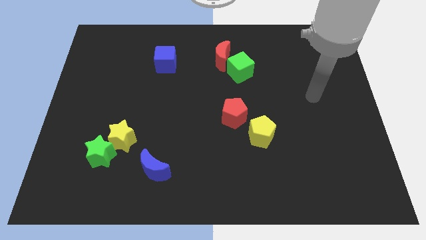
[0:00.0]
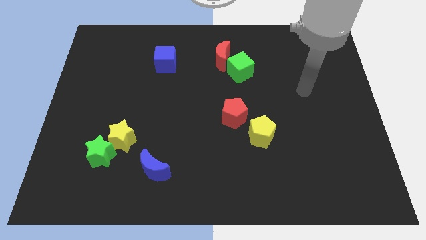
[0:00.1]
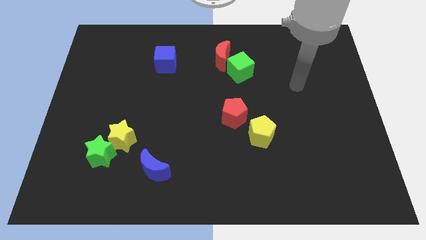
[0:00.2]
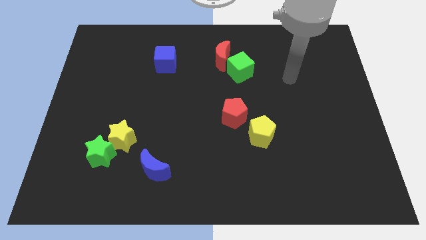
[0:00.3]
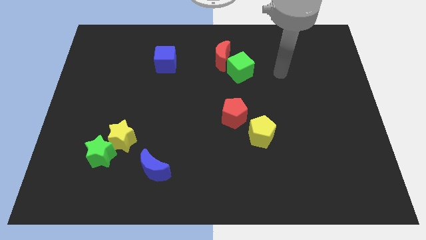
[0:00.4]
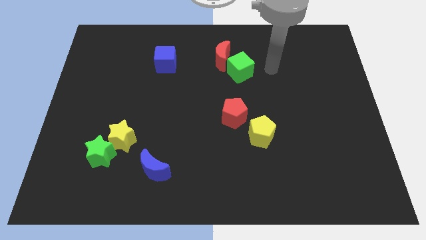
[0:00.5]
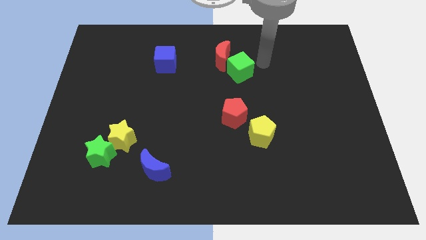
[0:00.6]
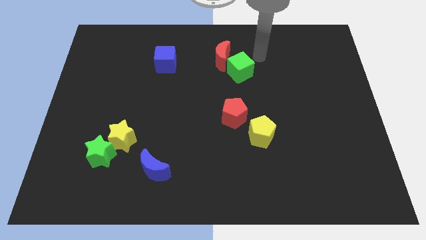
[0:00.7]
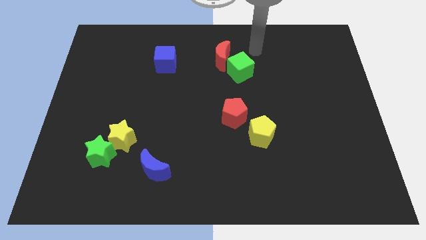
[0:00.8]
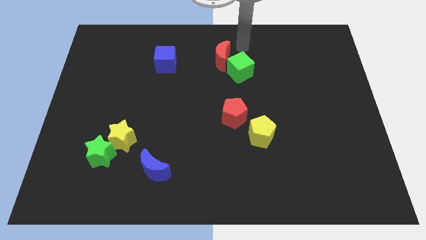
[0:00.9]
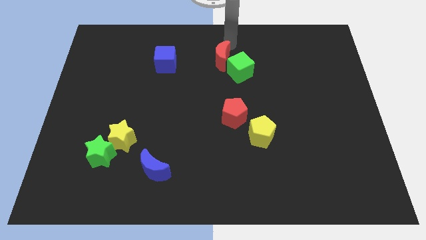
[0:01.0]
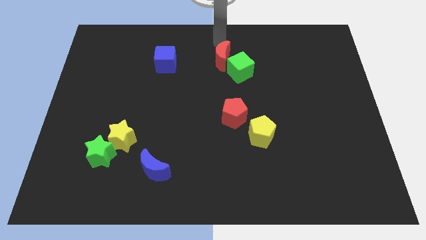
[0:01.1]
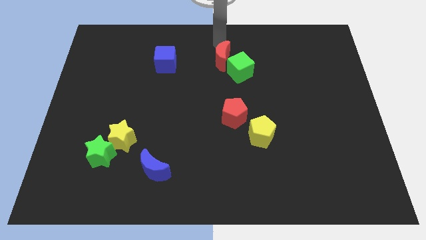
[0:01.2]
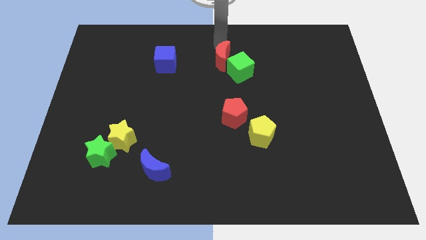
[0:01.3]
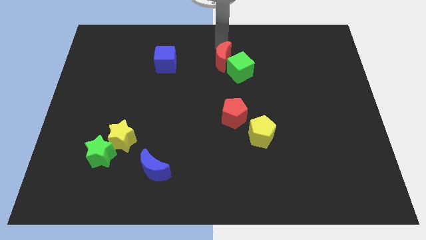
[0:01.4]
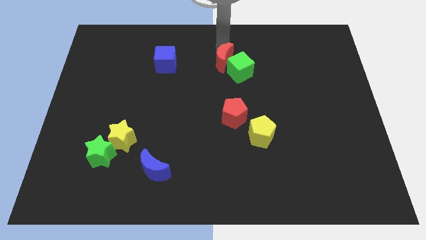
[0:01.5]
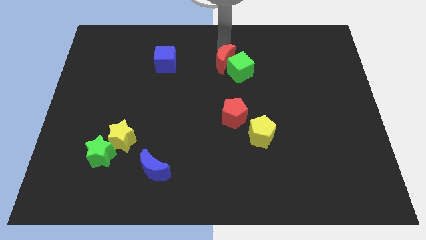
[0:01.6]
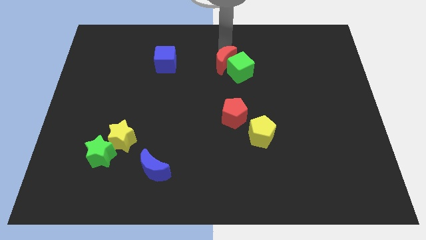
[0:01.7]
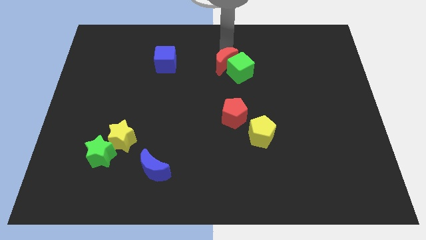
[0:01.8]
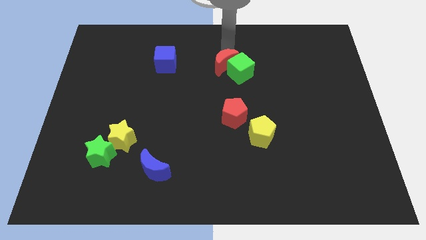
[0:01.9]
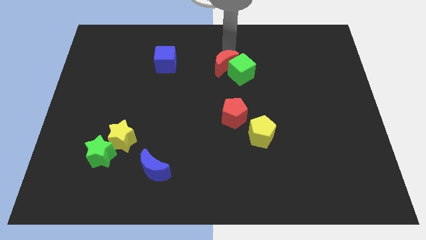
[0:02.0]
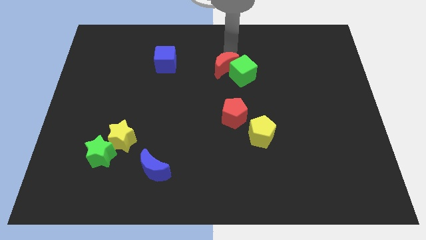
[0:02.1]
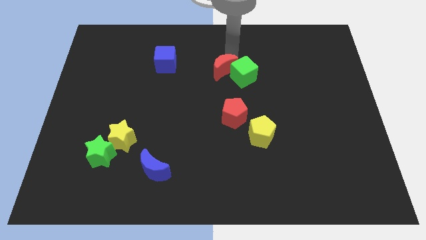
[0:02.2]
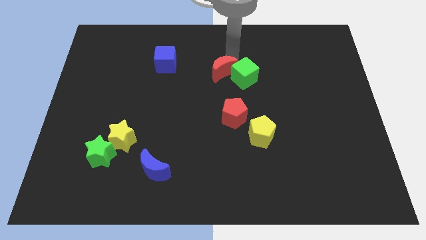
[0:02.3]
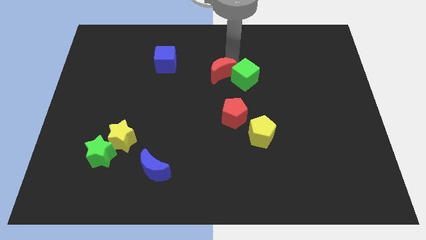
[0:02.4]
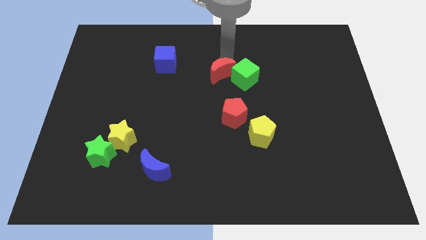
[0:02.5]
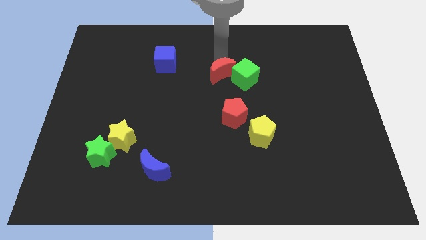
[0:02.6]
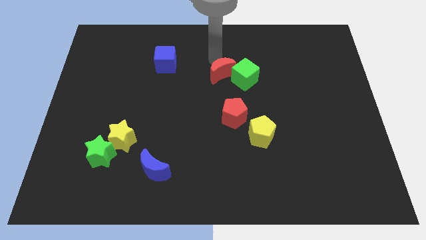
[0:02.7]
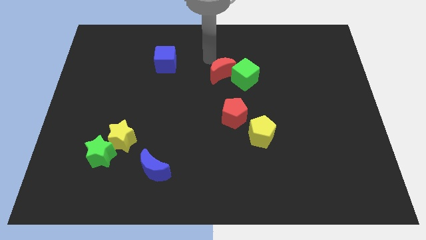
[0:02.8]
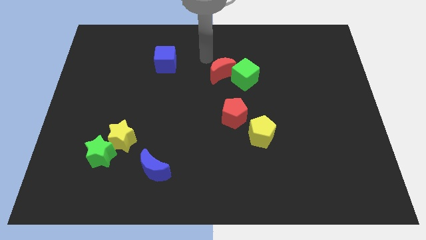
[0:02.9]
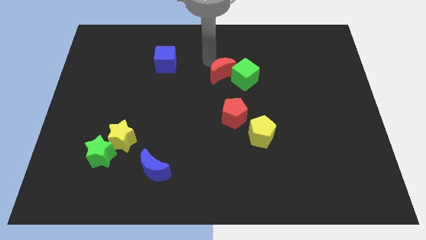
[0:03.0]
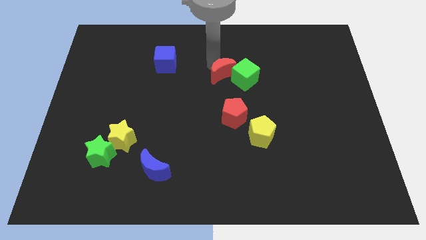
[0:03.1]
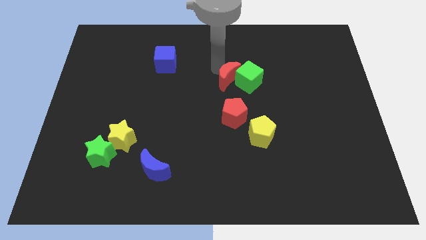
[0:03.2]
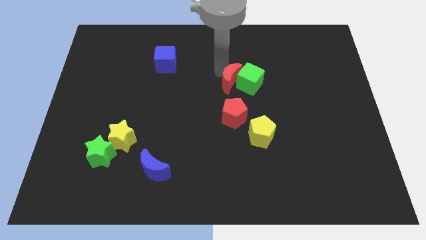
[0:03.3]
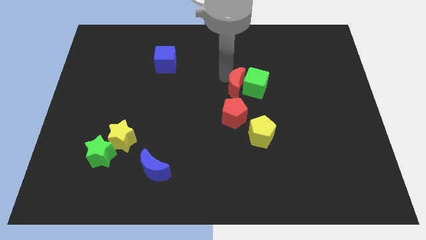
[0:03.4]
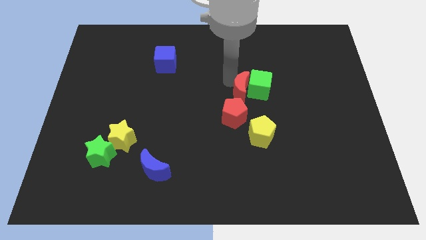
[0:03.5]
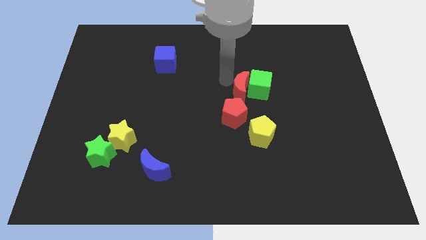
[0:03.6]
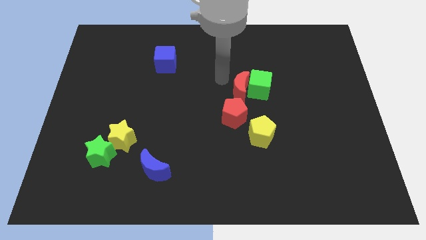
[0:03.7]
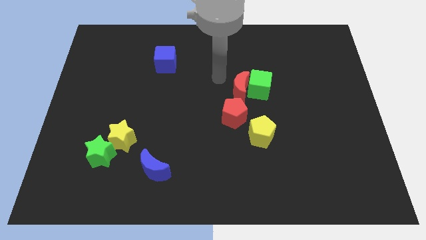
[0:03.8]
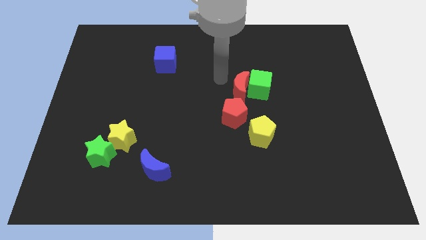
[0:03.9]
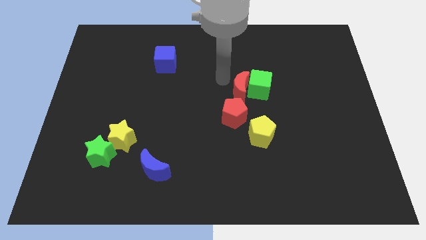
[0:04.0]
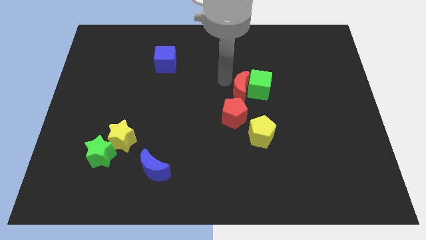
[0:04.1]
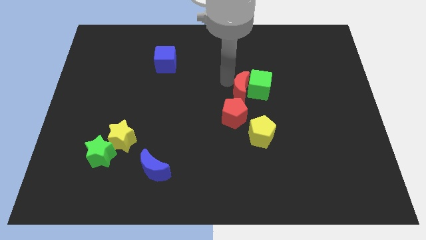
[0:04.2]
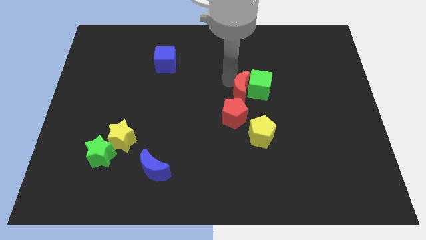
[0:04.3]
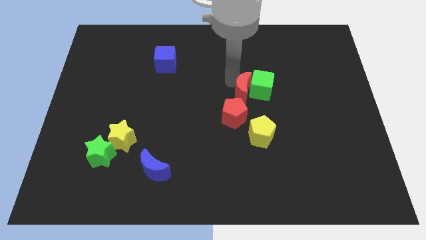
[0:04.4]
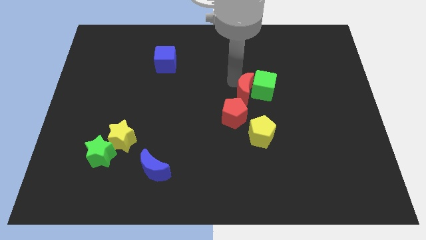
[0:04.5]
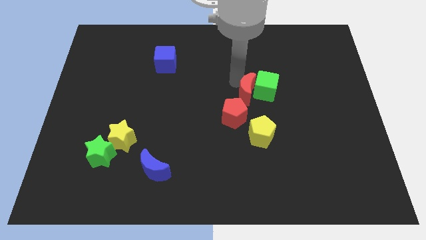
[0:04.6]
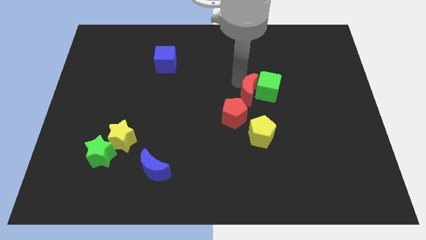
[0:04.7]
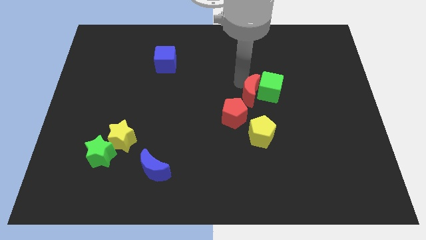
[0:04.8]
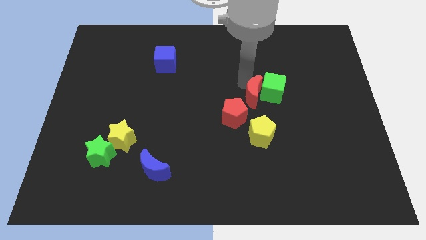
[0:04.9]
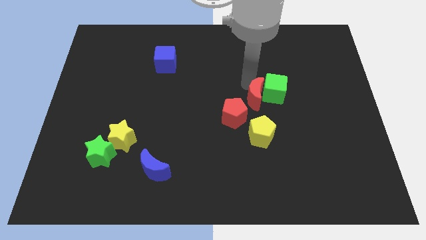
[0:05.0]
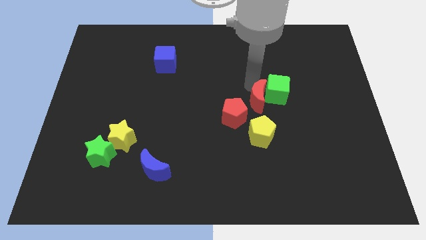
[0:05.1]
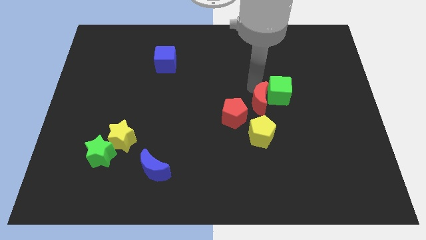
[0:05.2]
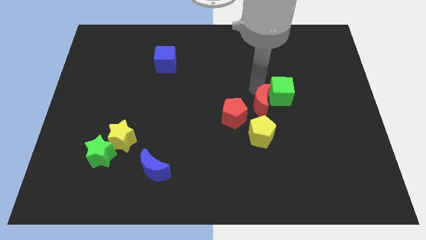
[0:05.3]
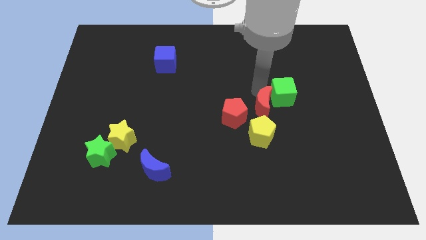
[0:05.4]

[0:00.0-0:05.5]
slide the red moon to the top right of the yellow pentagon

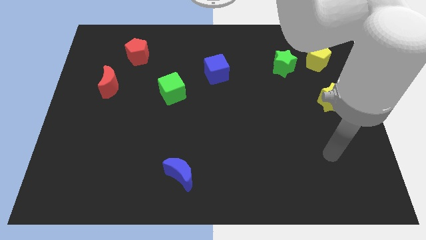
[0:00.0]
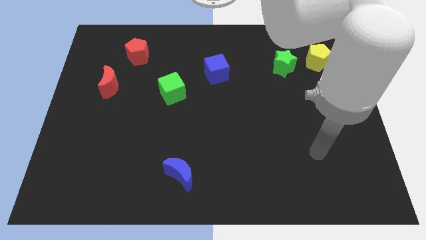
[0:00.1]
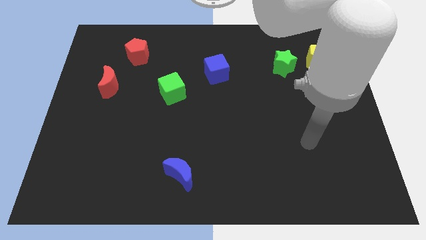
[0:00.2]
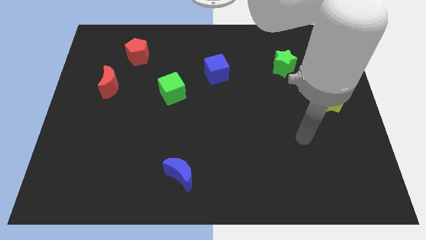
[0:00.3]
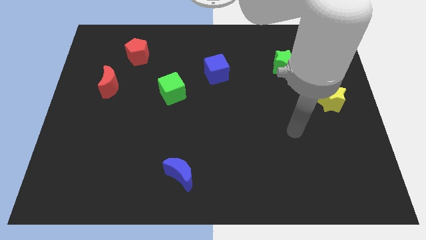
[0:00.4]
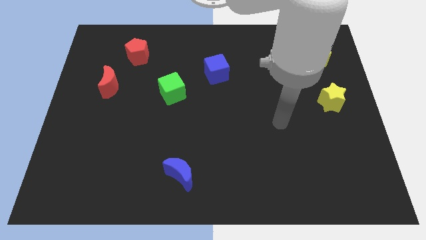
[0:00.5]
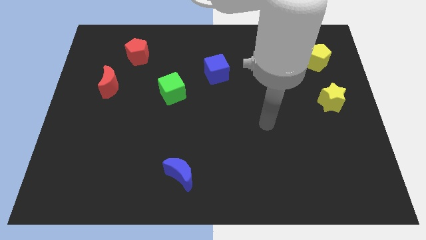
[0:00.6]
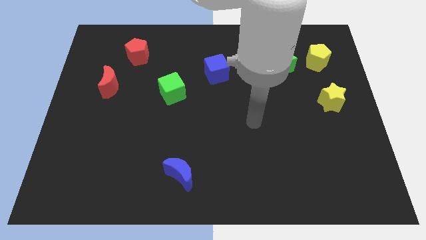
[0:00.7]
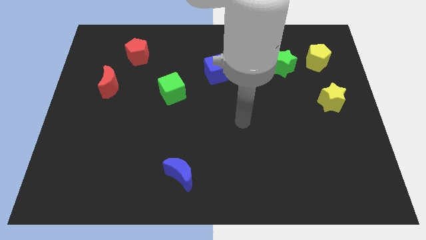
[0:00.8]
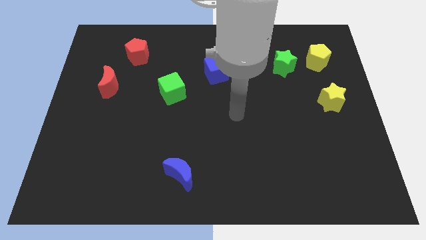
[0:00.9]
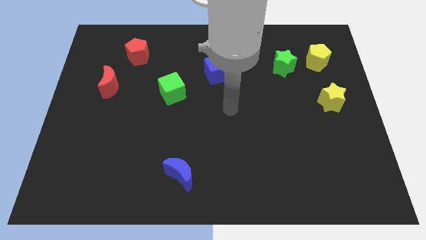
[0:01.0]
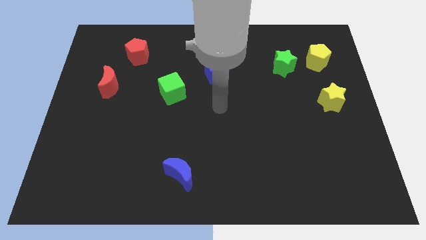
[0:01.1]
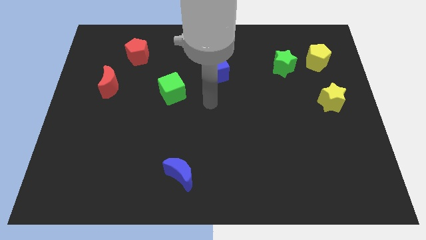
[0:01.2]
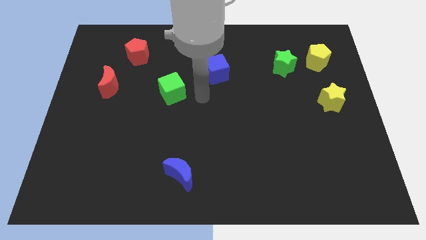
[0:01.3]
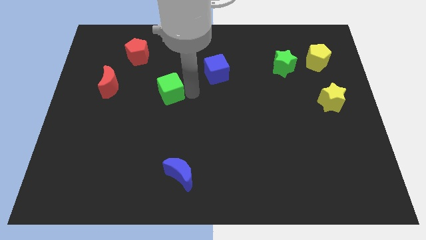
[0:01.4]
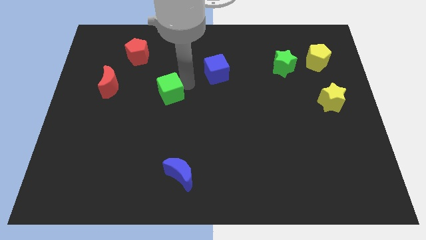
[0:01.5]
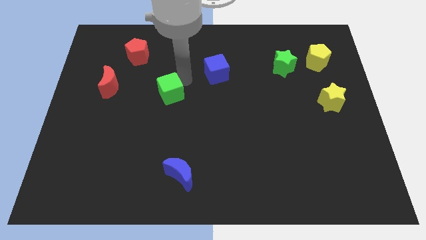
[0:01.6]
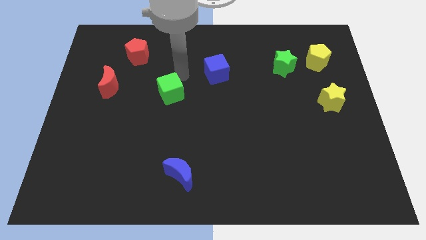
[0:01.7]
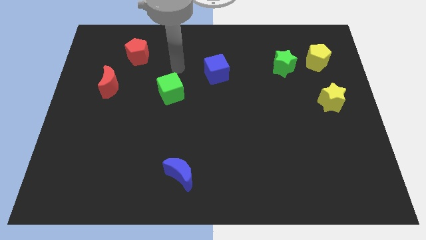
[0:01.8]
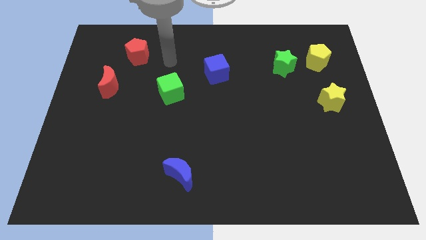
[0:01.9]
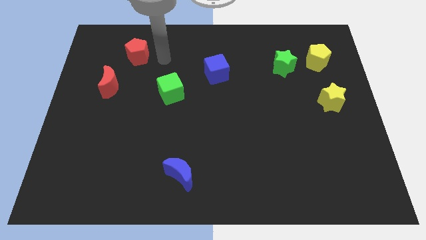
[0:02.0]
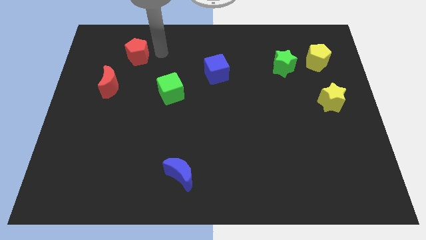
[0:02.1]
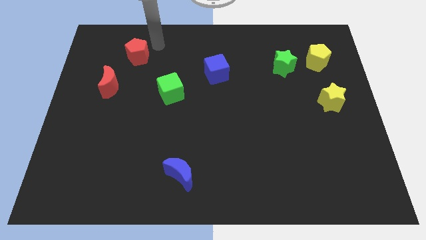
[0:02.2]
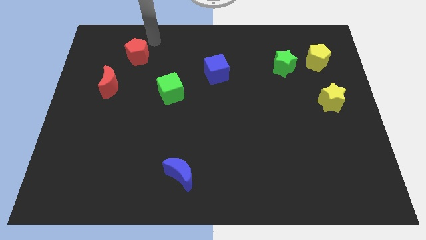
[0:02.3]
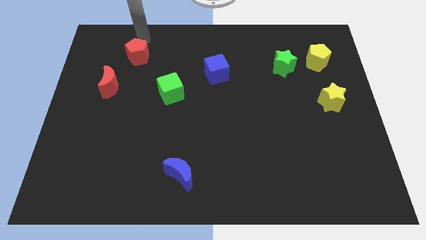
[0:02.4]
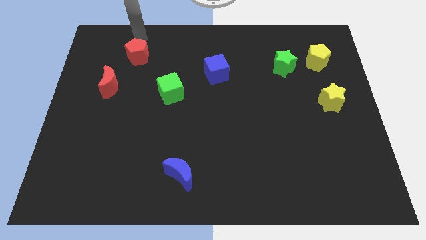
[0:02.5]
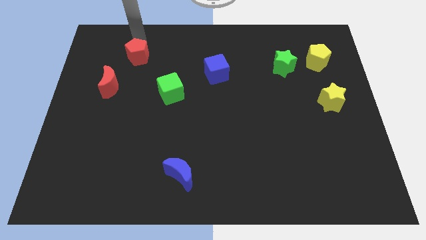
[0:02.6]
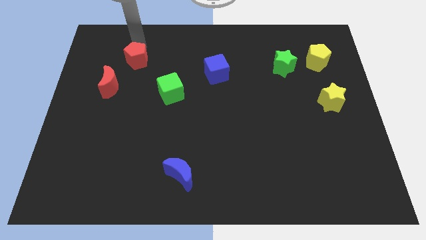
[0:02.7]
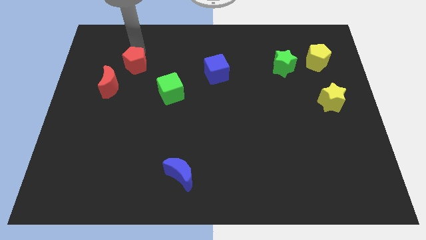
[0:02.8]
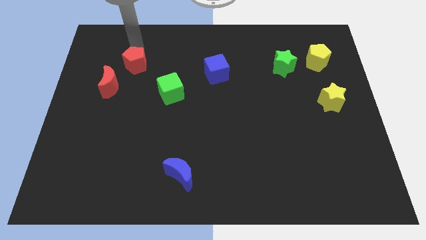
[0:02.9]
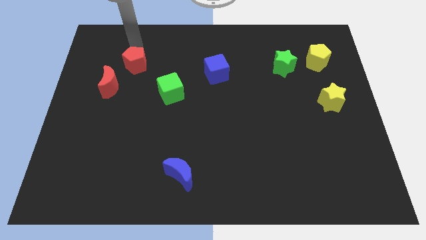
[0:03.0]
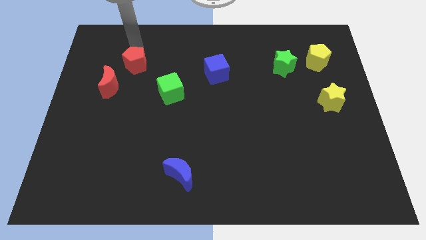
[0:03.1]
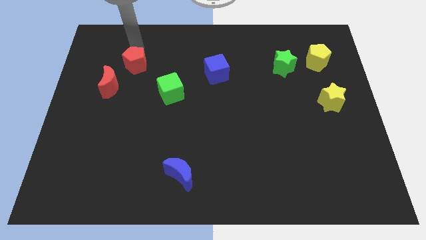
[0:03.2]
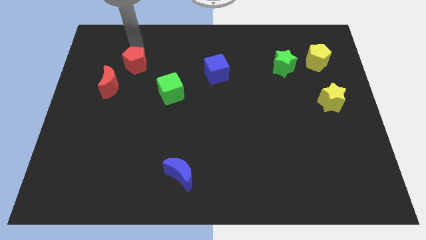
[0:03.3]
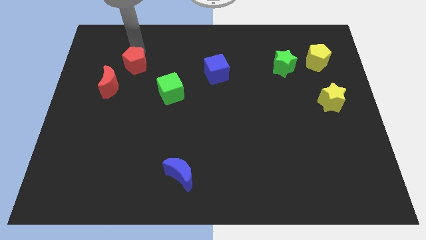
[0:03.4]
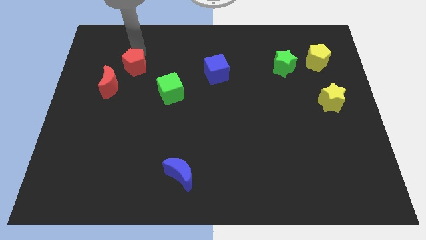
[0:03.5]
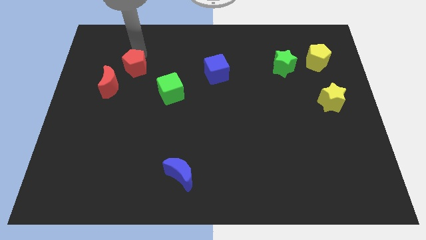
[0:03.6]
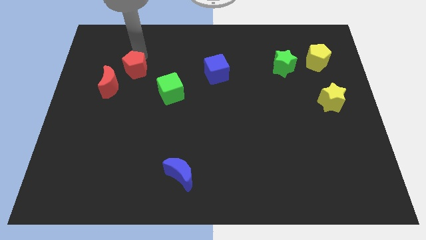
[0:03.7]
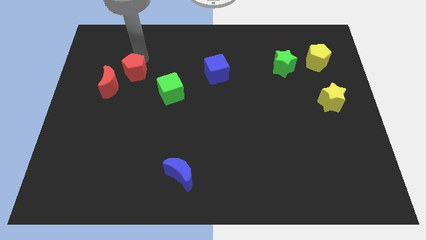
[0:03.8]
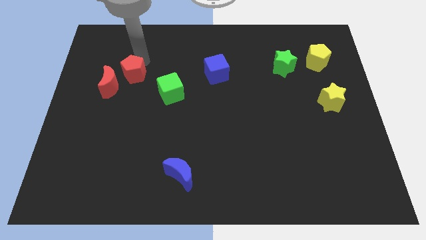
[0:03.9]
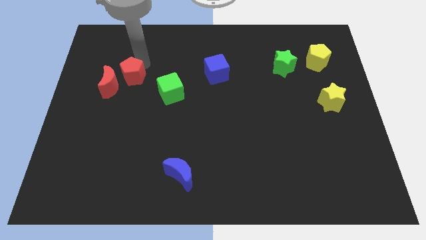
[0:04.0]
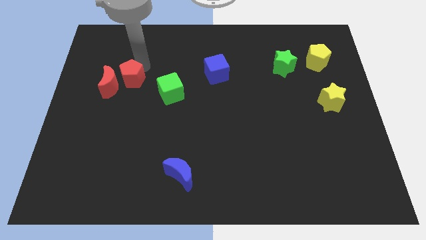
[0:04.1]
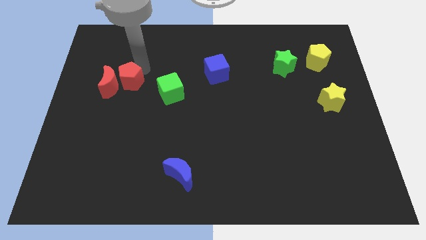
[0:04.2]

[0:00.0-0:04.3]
move the red pentagon to the bottom right of the red moon
